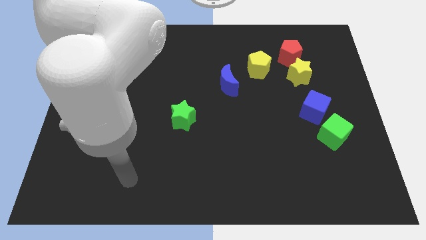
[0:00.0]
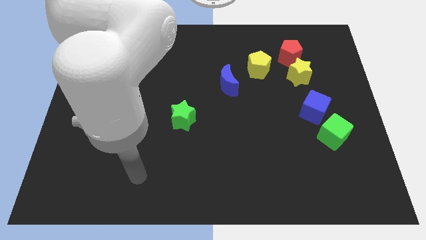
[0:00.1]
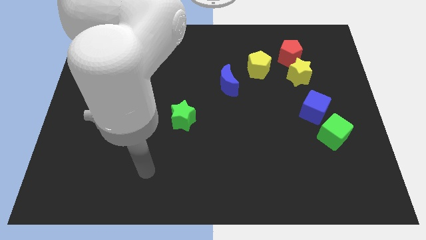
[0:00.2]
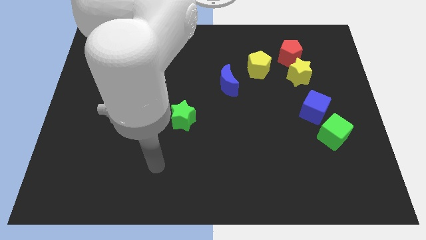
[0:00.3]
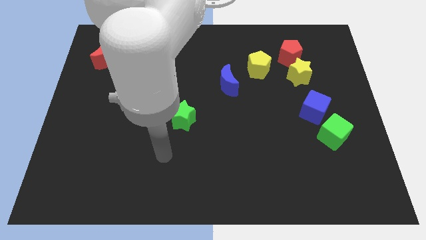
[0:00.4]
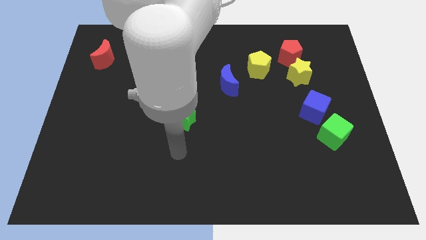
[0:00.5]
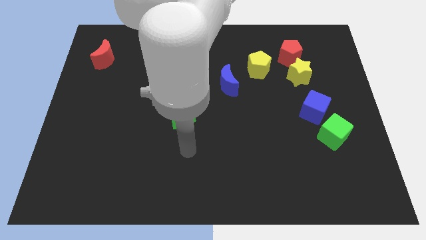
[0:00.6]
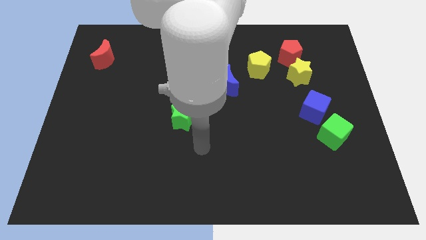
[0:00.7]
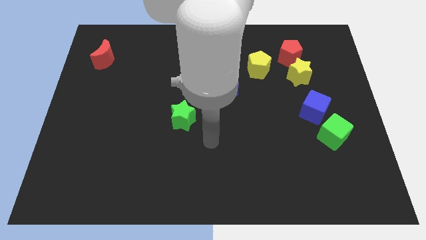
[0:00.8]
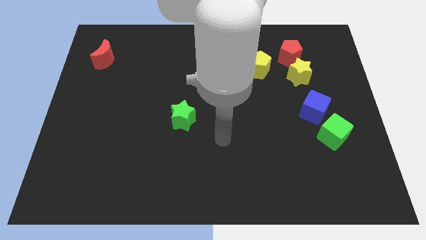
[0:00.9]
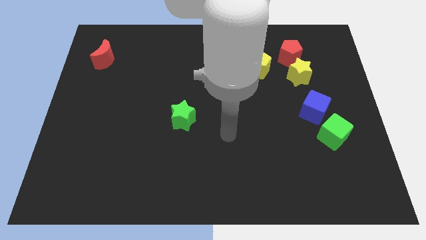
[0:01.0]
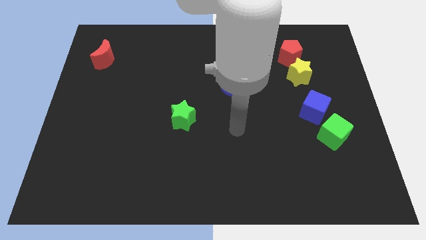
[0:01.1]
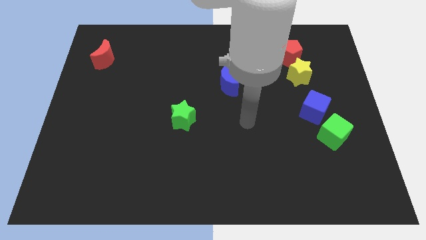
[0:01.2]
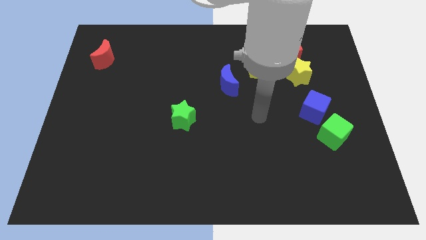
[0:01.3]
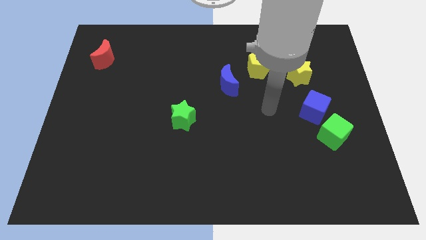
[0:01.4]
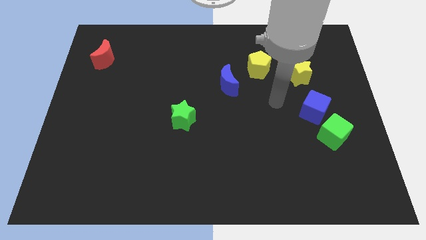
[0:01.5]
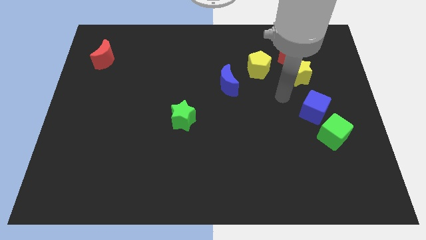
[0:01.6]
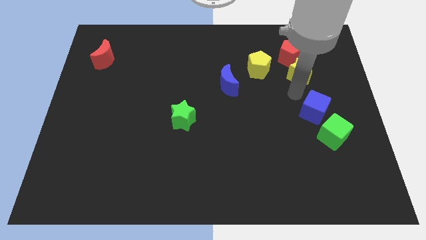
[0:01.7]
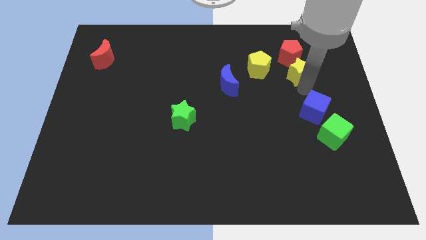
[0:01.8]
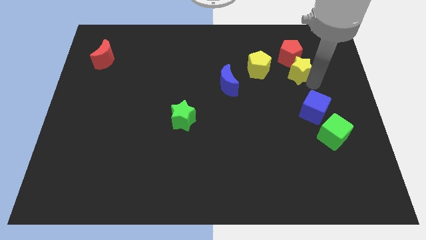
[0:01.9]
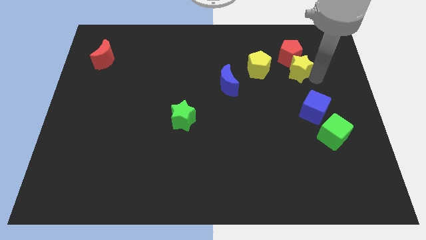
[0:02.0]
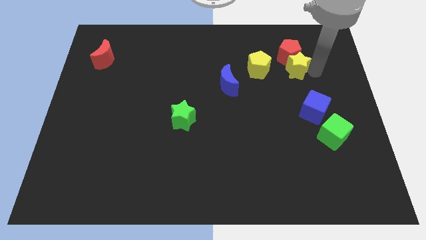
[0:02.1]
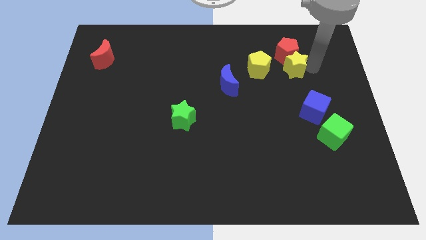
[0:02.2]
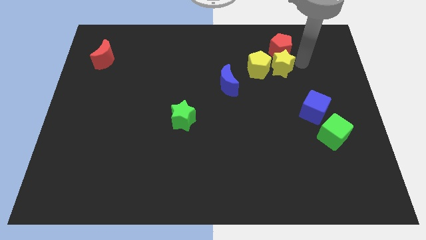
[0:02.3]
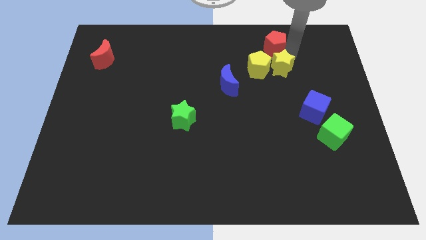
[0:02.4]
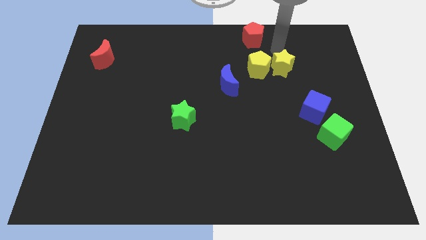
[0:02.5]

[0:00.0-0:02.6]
pull the yellow star apart from the red pentagon

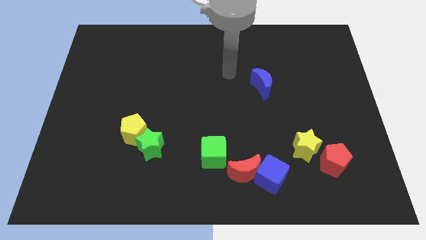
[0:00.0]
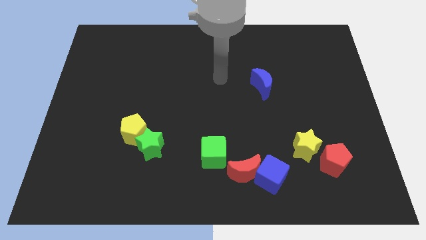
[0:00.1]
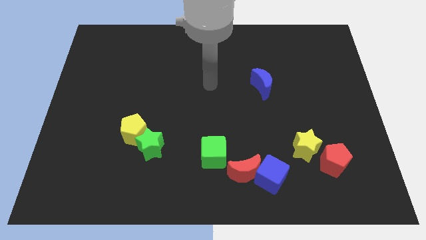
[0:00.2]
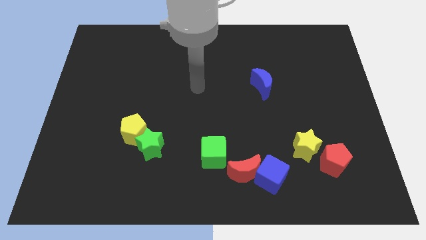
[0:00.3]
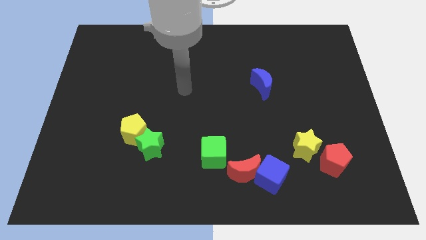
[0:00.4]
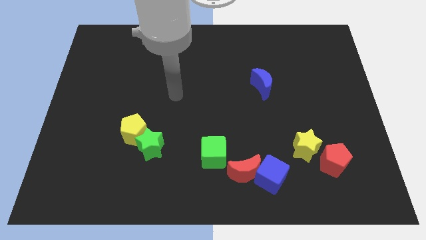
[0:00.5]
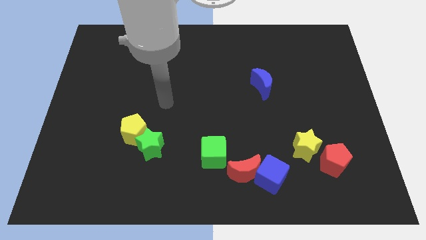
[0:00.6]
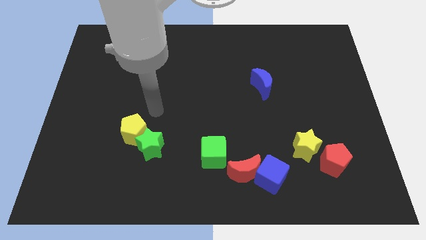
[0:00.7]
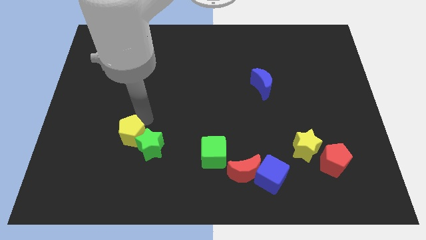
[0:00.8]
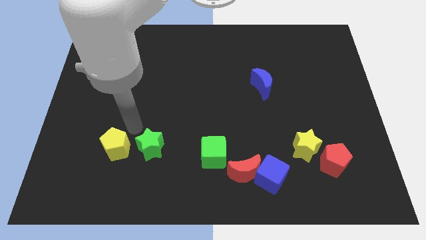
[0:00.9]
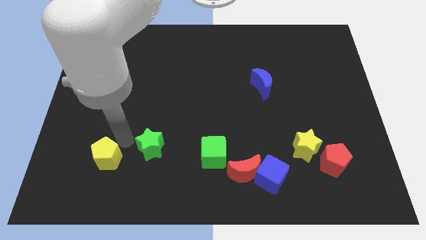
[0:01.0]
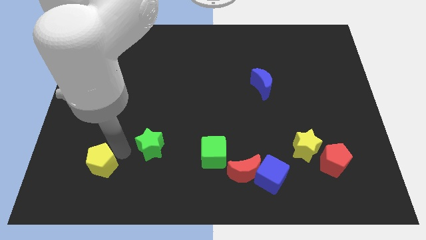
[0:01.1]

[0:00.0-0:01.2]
pull the green star apart from the yellow pentagon

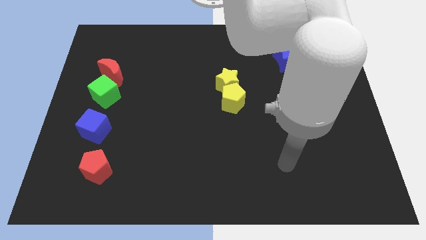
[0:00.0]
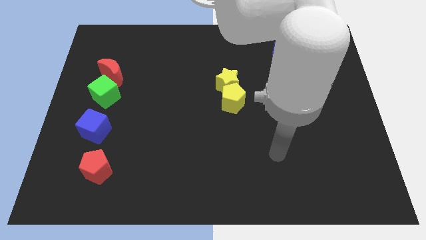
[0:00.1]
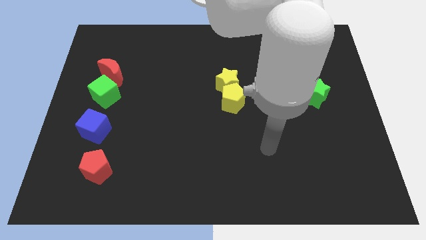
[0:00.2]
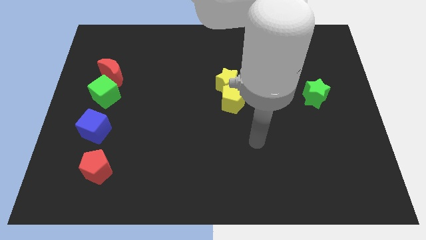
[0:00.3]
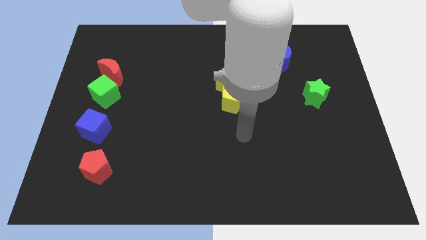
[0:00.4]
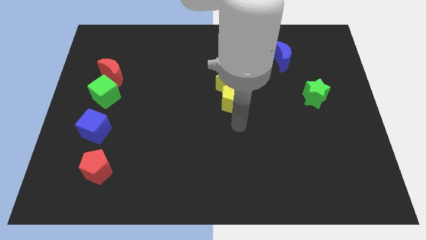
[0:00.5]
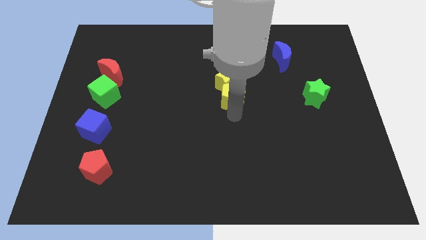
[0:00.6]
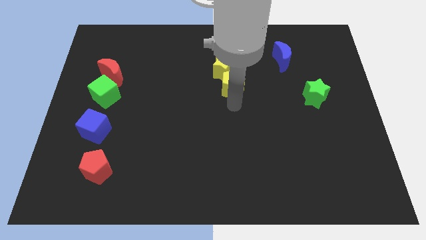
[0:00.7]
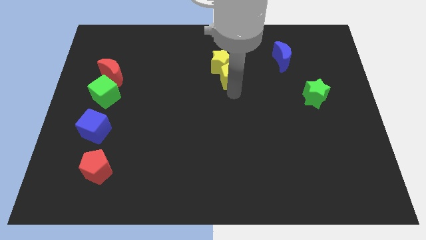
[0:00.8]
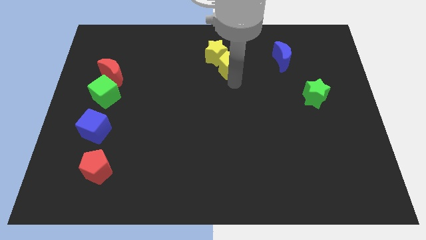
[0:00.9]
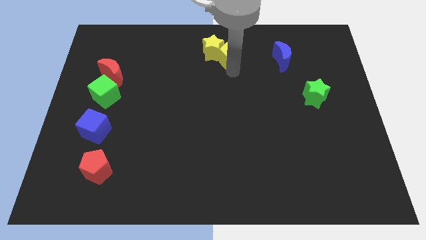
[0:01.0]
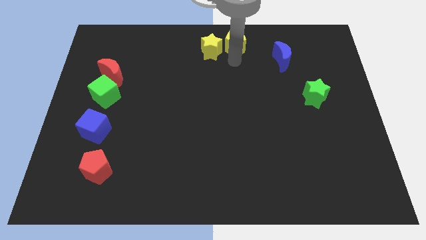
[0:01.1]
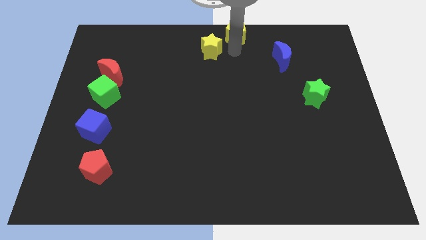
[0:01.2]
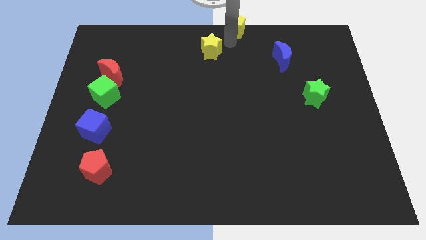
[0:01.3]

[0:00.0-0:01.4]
move the yellow star away from the yellow pentagon

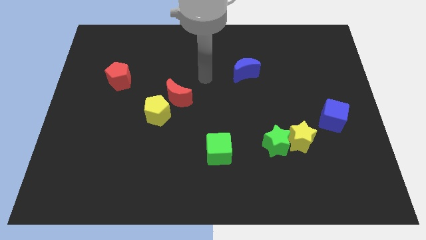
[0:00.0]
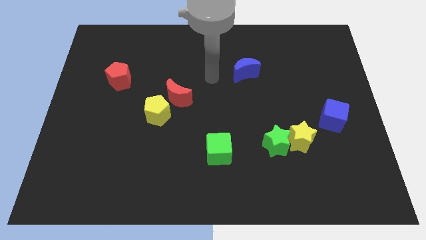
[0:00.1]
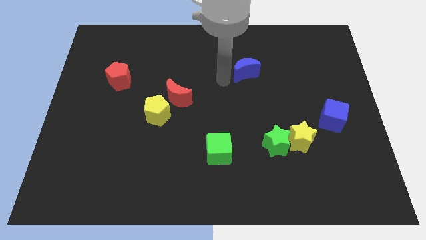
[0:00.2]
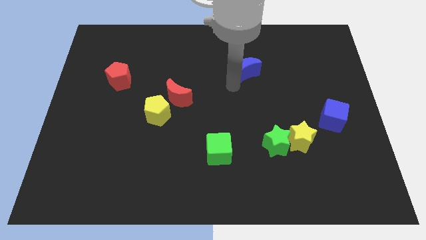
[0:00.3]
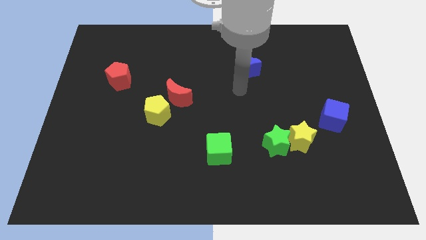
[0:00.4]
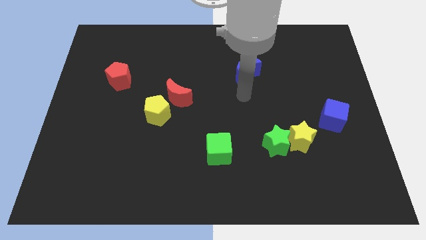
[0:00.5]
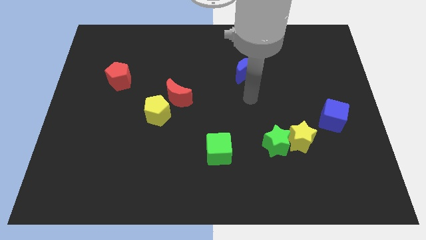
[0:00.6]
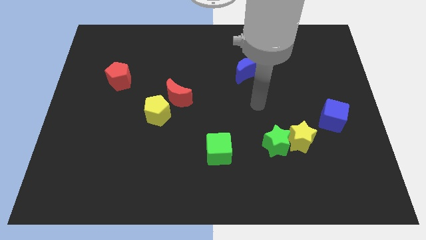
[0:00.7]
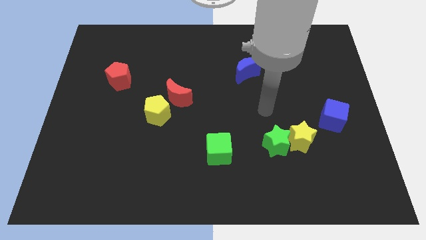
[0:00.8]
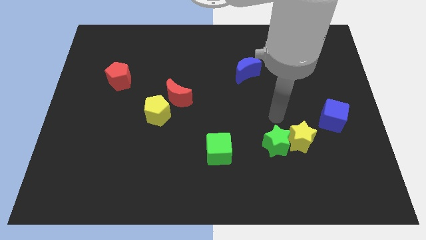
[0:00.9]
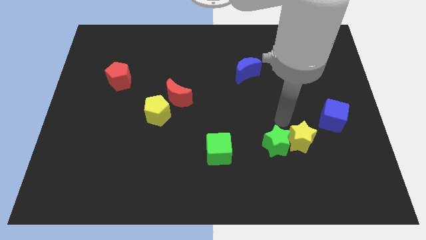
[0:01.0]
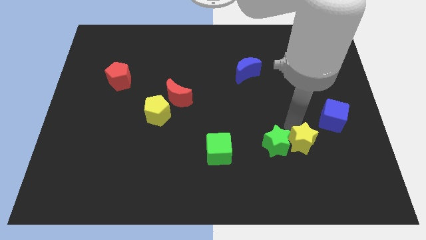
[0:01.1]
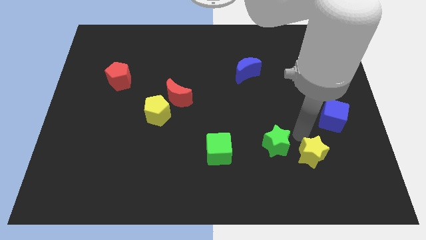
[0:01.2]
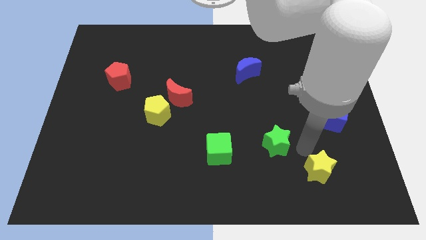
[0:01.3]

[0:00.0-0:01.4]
move the green star away from the yellow star

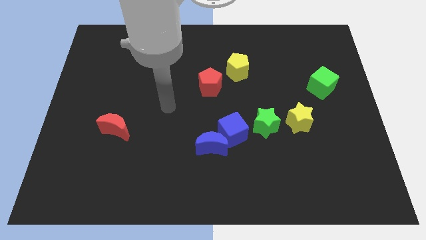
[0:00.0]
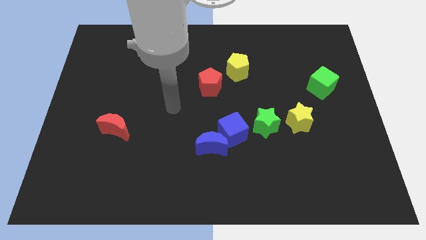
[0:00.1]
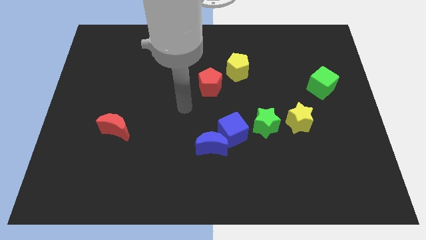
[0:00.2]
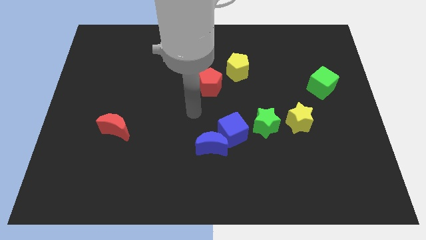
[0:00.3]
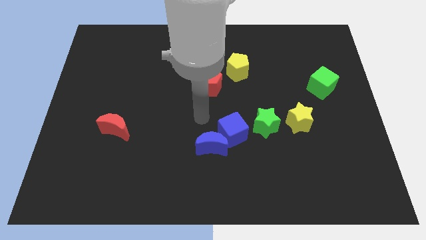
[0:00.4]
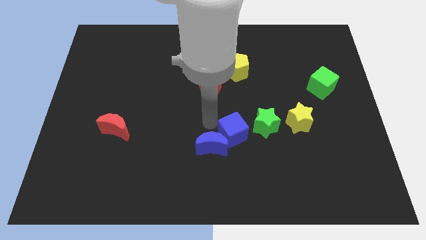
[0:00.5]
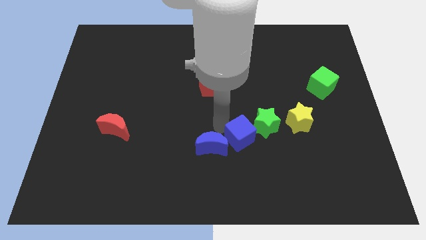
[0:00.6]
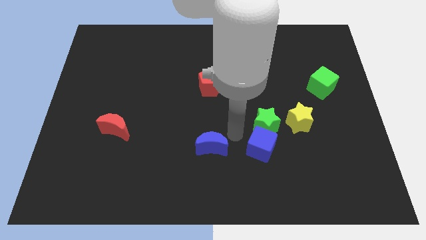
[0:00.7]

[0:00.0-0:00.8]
move the blue moon away from the blue cube

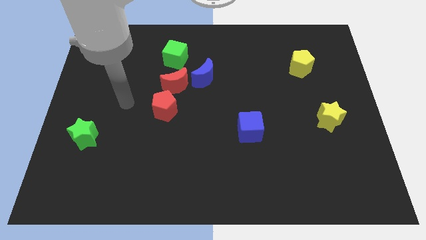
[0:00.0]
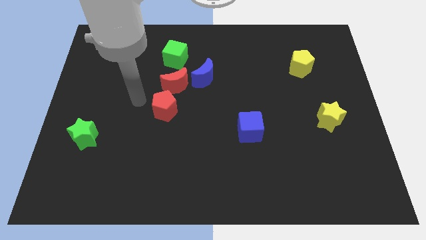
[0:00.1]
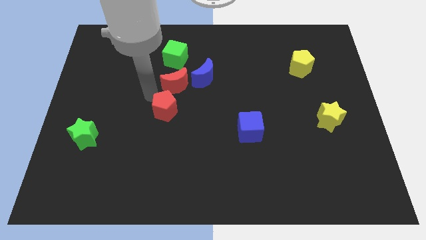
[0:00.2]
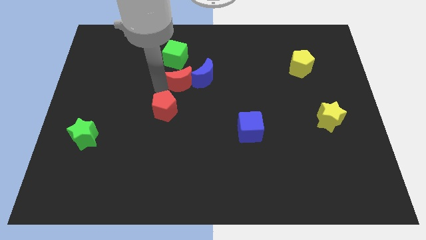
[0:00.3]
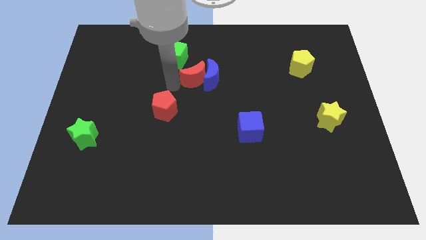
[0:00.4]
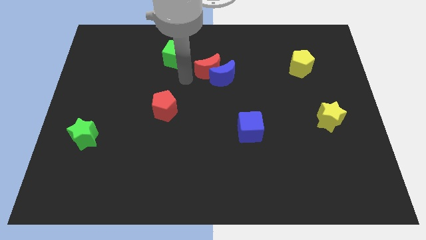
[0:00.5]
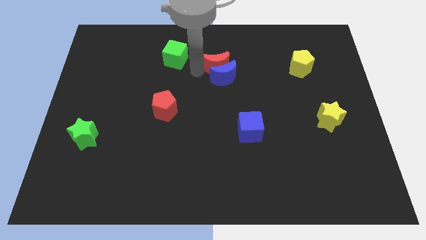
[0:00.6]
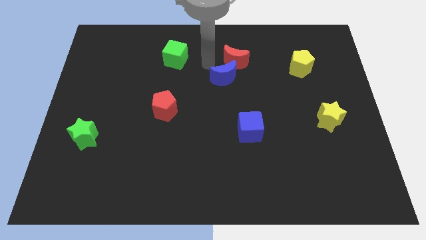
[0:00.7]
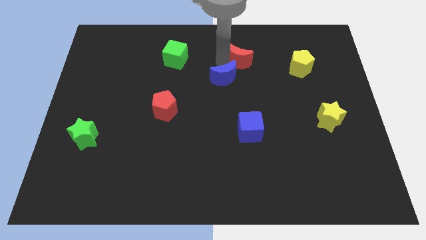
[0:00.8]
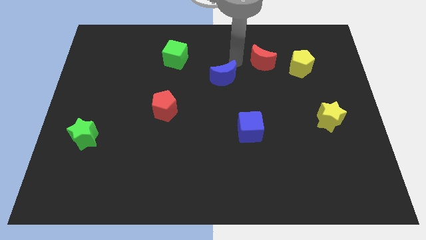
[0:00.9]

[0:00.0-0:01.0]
pull the blue moon apart from the red moon

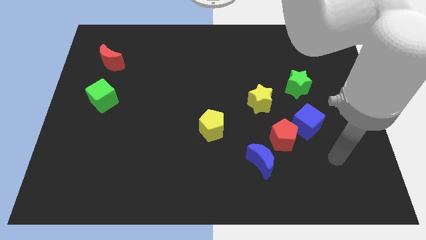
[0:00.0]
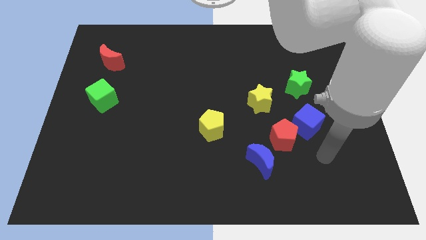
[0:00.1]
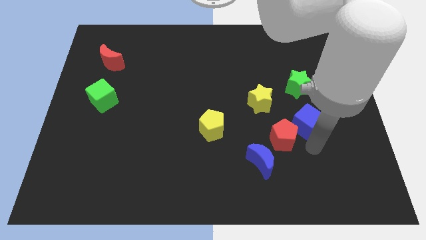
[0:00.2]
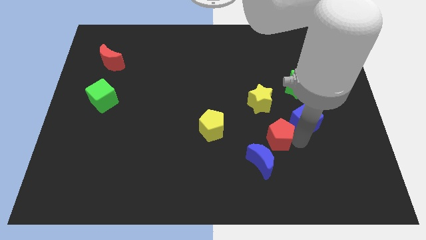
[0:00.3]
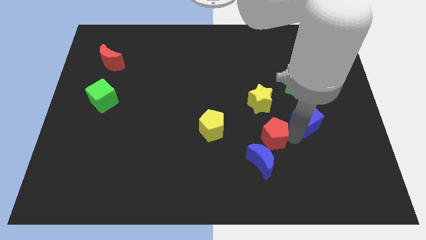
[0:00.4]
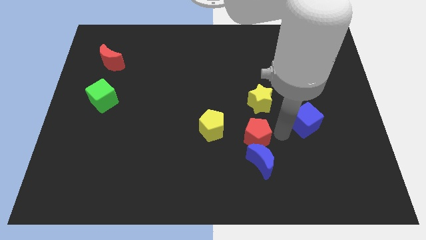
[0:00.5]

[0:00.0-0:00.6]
move the blue cube away from the red pentagon

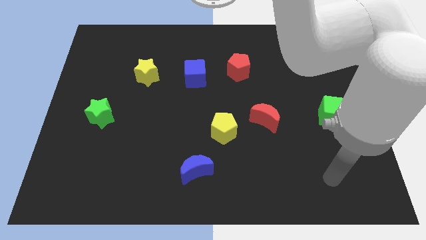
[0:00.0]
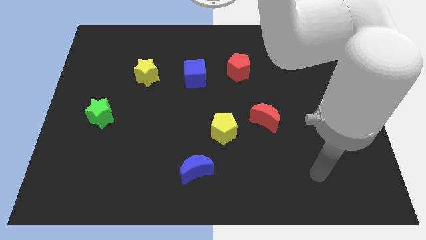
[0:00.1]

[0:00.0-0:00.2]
separate the red moon from the yellow pentagon
